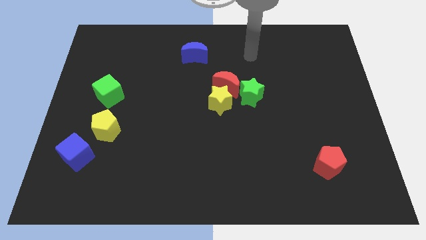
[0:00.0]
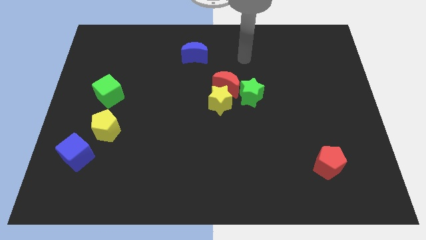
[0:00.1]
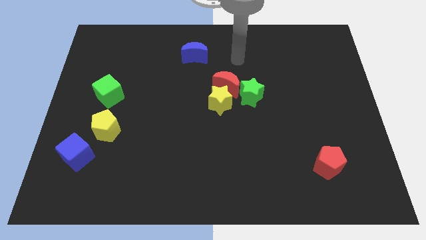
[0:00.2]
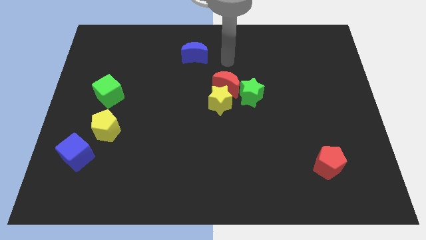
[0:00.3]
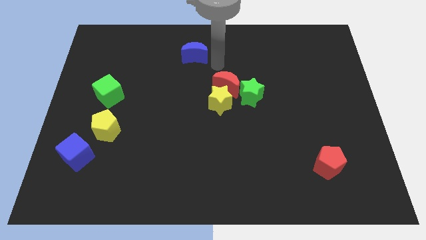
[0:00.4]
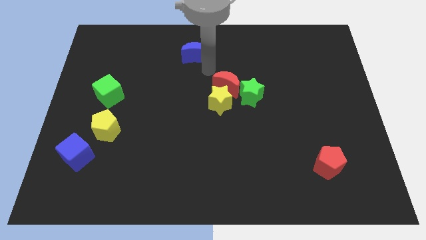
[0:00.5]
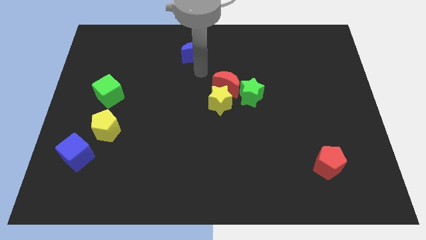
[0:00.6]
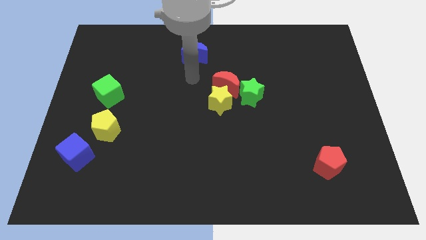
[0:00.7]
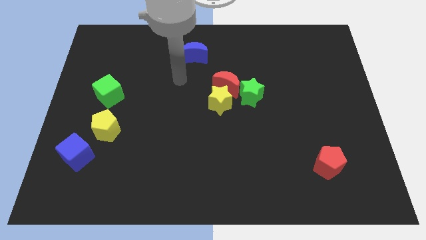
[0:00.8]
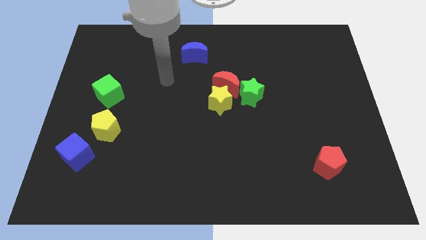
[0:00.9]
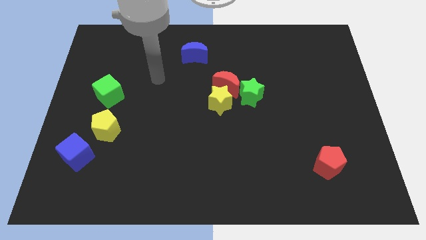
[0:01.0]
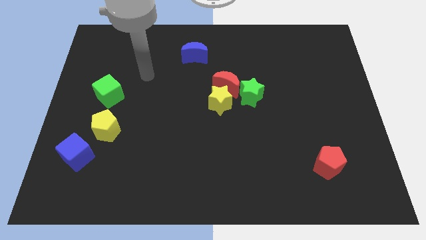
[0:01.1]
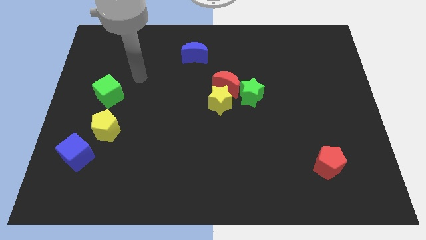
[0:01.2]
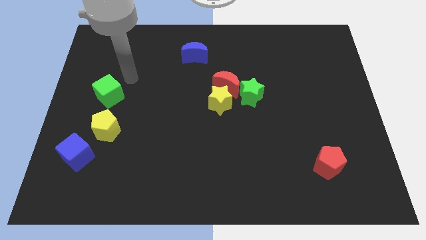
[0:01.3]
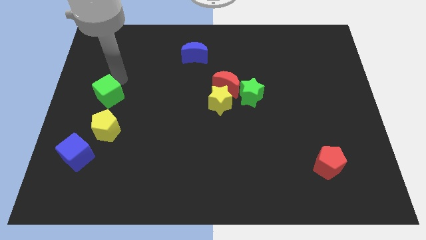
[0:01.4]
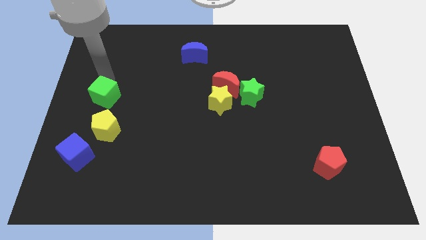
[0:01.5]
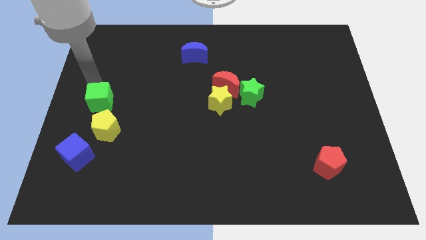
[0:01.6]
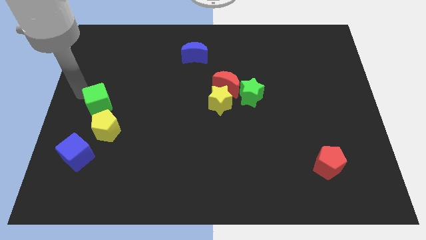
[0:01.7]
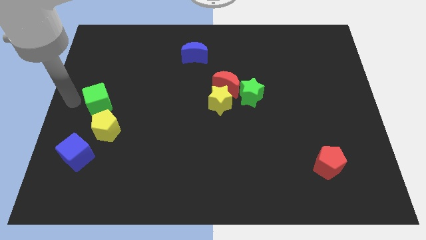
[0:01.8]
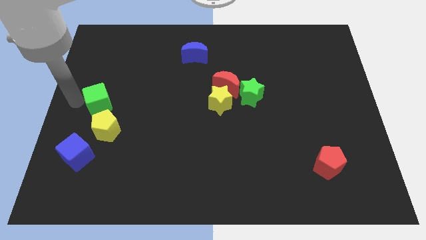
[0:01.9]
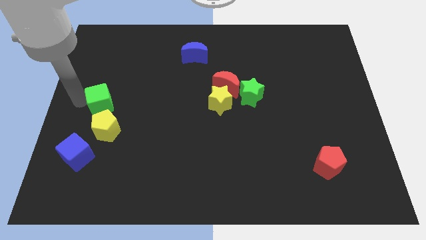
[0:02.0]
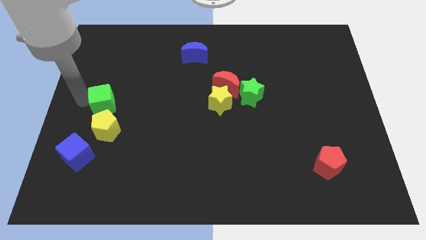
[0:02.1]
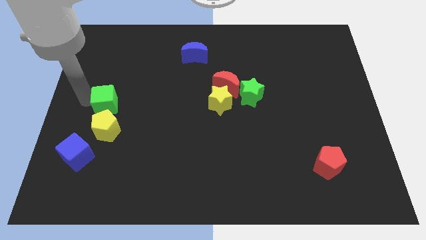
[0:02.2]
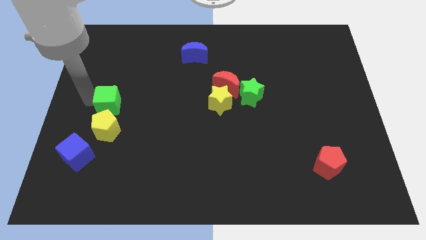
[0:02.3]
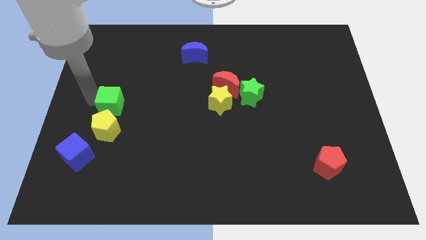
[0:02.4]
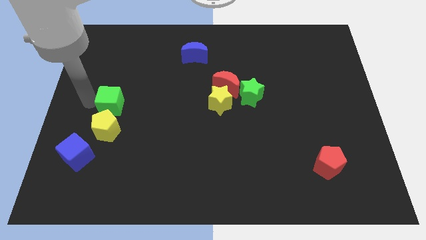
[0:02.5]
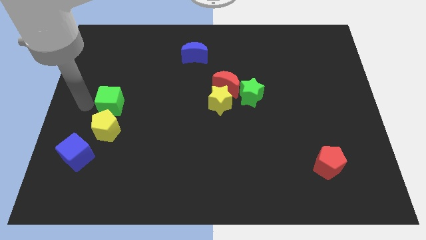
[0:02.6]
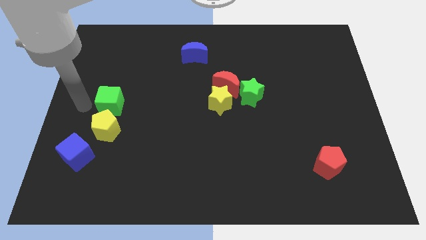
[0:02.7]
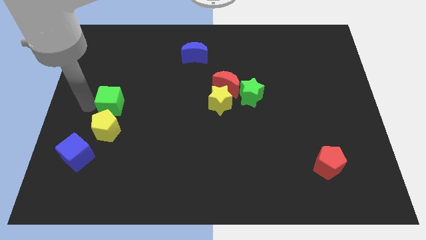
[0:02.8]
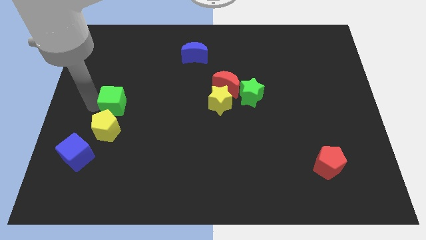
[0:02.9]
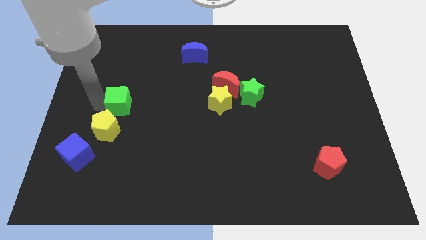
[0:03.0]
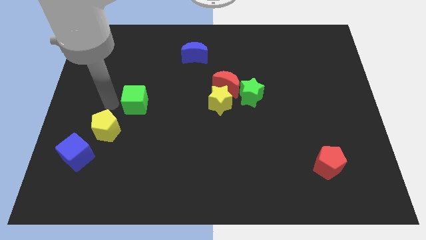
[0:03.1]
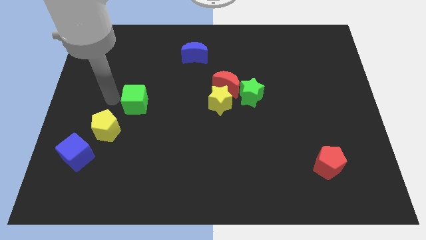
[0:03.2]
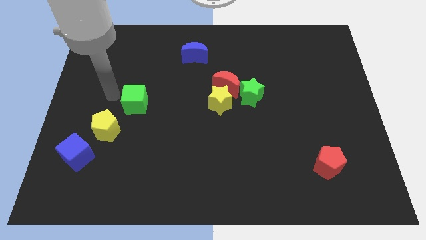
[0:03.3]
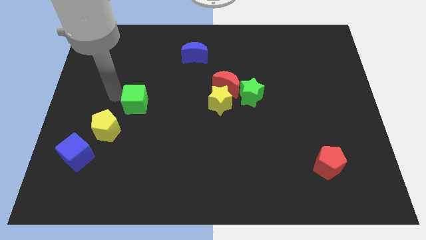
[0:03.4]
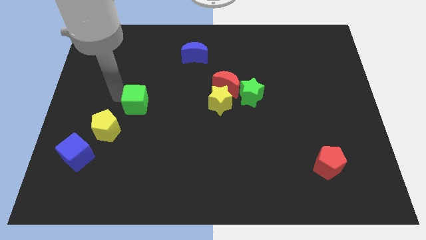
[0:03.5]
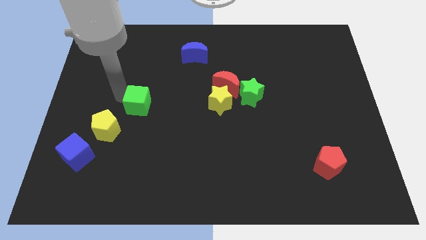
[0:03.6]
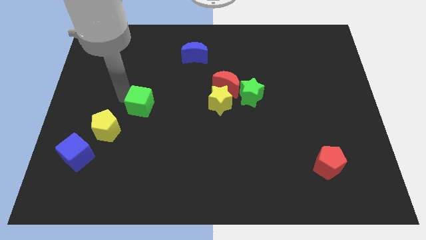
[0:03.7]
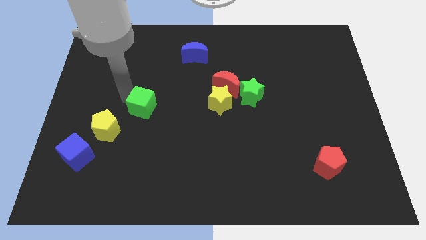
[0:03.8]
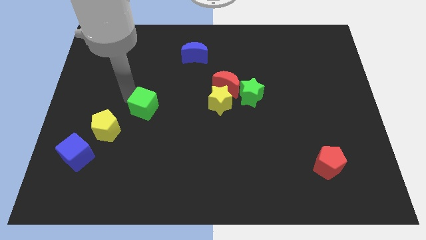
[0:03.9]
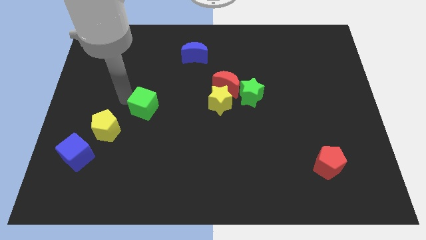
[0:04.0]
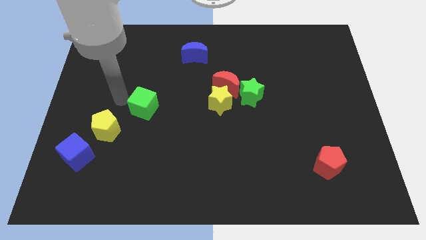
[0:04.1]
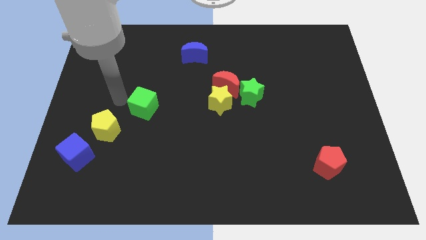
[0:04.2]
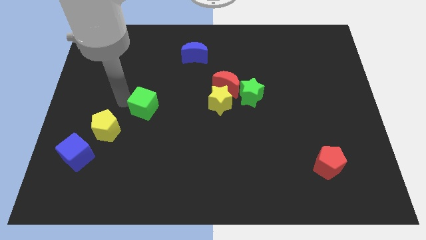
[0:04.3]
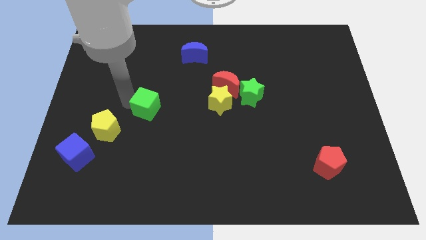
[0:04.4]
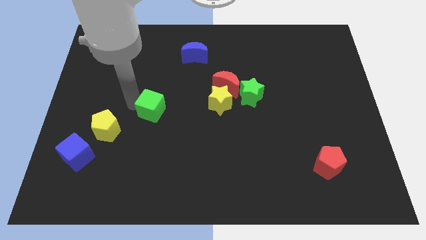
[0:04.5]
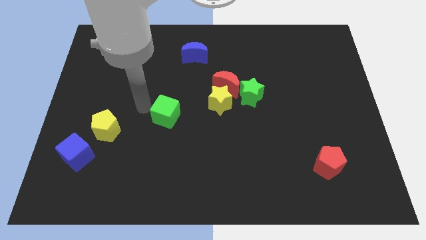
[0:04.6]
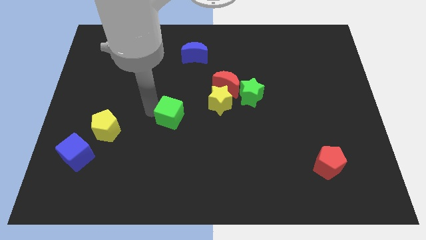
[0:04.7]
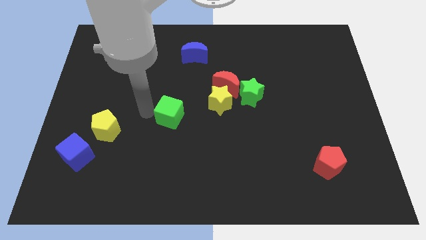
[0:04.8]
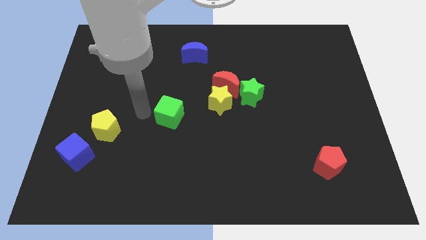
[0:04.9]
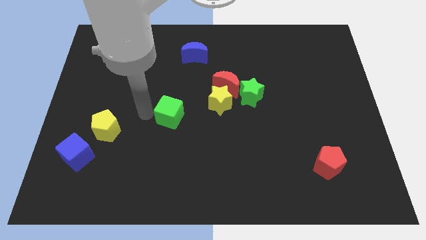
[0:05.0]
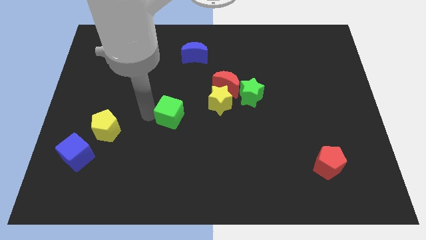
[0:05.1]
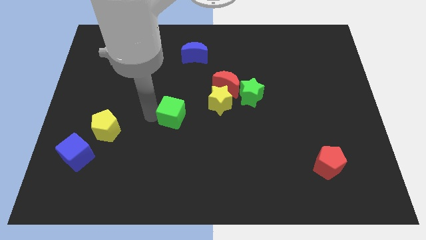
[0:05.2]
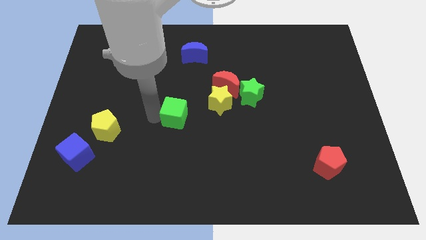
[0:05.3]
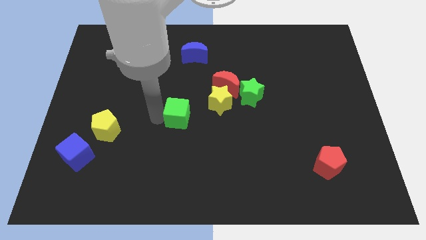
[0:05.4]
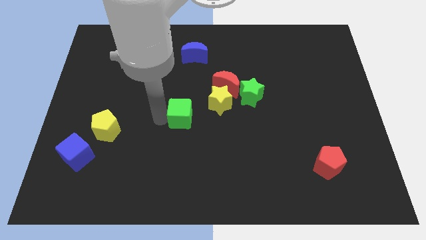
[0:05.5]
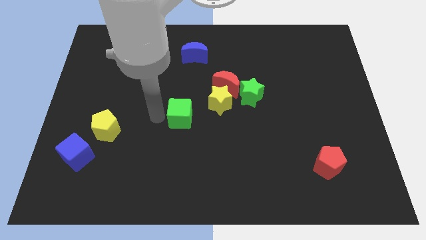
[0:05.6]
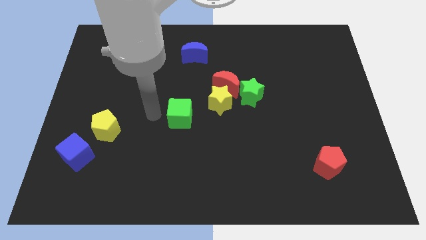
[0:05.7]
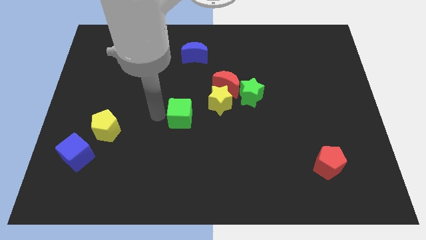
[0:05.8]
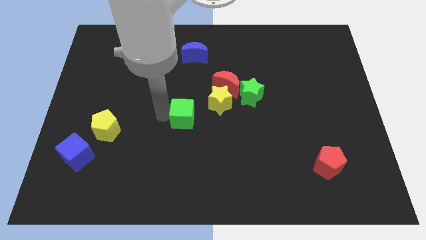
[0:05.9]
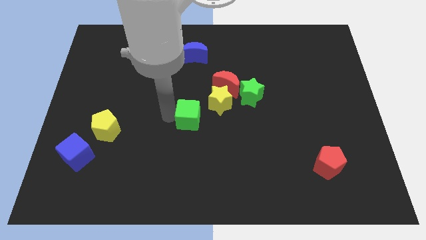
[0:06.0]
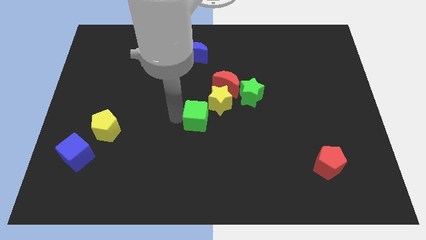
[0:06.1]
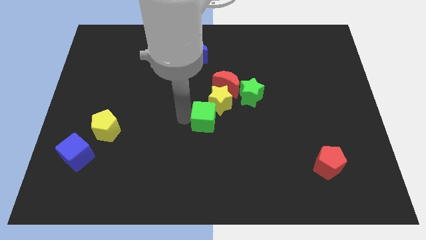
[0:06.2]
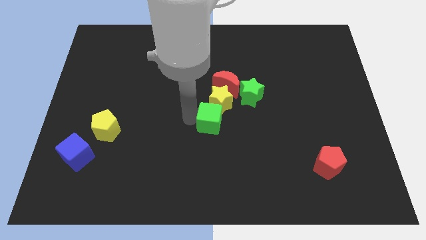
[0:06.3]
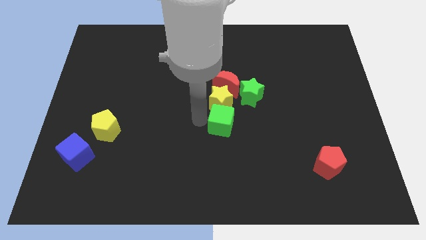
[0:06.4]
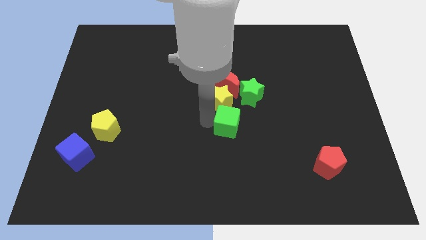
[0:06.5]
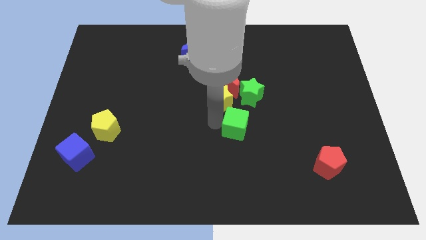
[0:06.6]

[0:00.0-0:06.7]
slide the green cube to the bottom of the green star

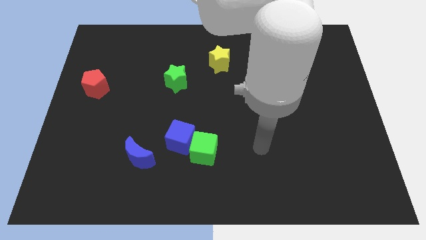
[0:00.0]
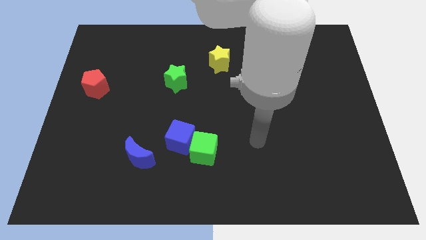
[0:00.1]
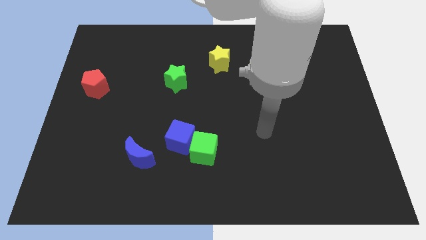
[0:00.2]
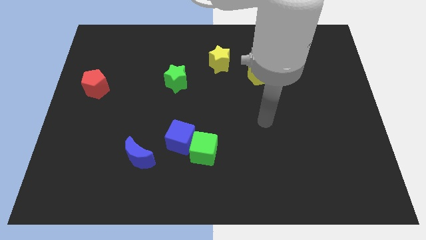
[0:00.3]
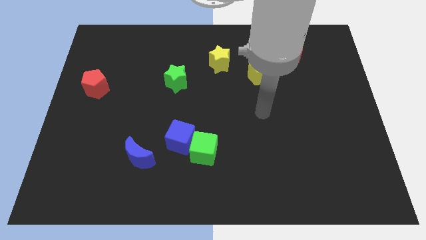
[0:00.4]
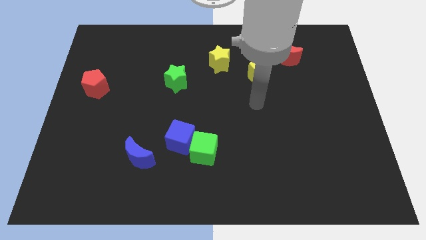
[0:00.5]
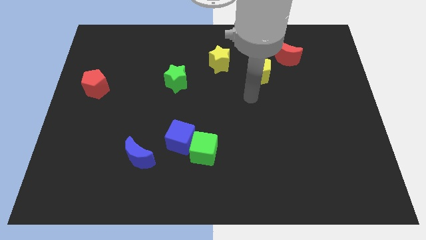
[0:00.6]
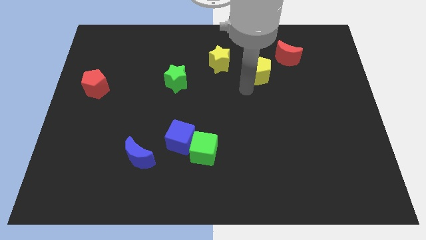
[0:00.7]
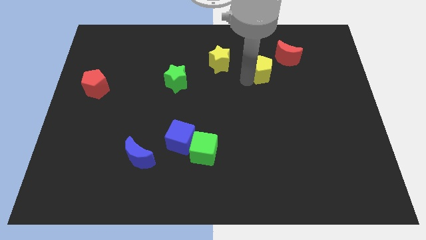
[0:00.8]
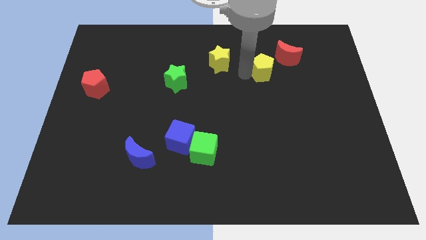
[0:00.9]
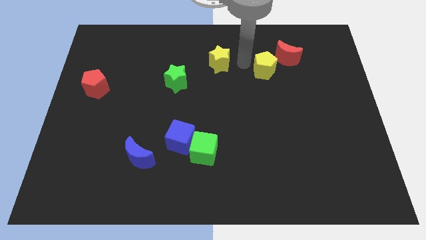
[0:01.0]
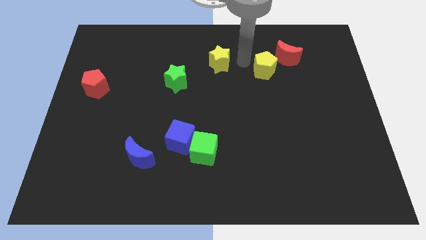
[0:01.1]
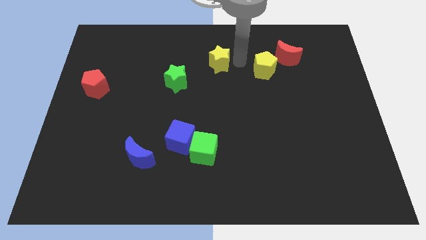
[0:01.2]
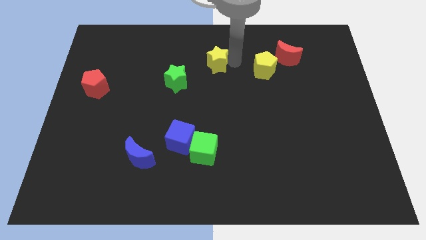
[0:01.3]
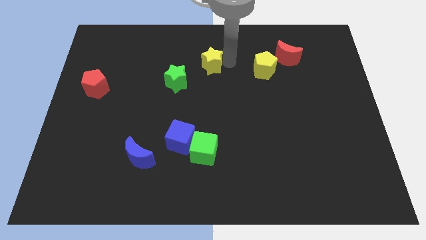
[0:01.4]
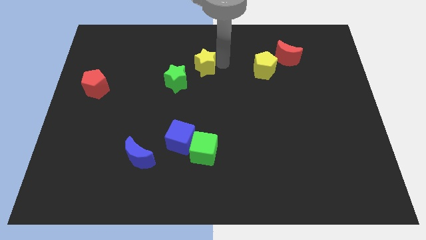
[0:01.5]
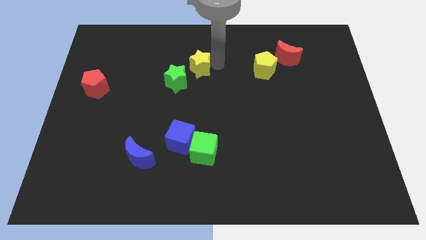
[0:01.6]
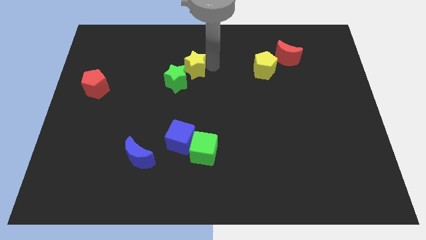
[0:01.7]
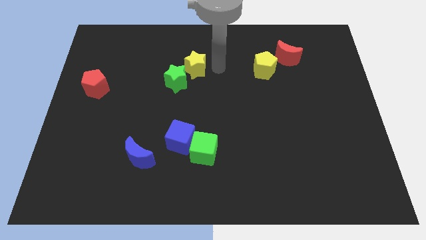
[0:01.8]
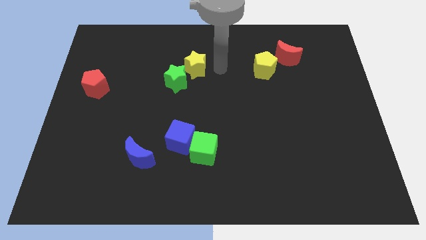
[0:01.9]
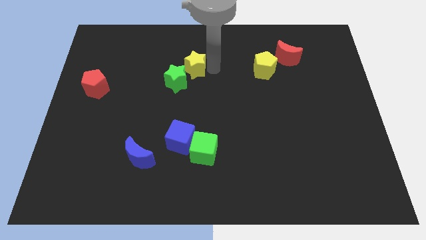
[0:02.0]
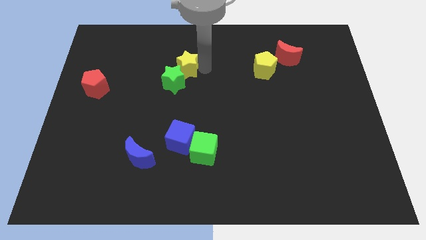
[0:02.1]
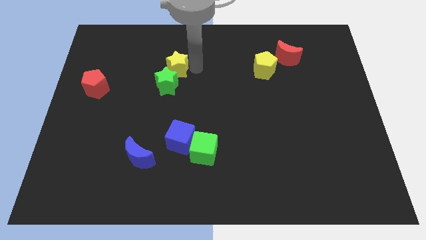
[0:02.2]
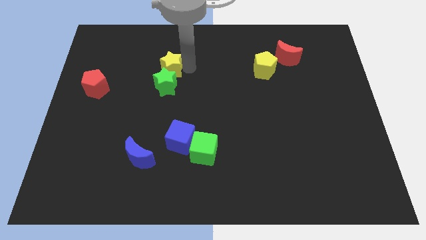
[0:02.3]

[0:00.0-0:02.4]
move the yellow star to the top left of the green star
